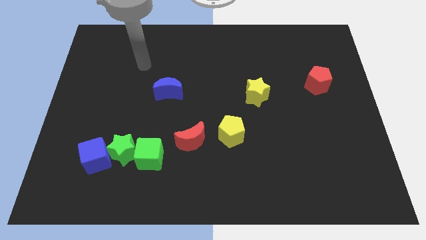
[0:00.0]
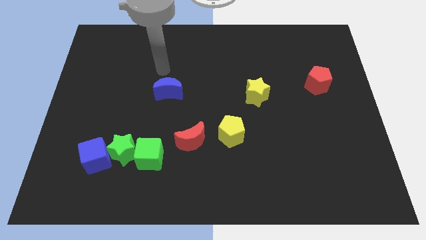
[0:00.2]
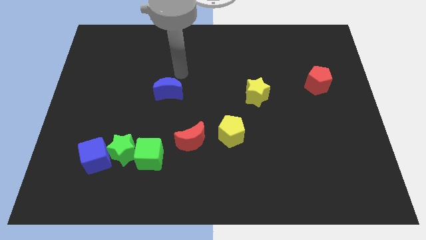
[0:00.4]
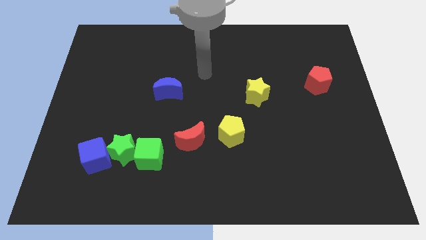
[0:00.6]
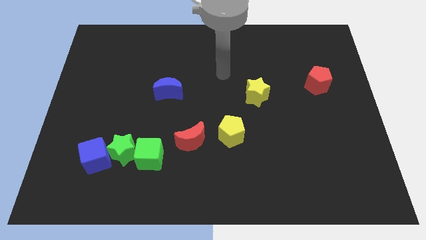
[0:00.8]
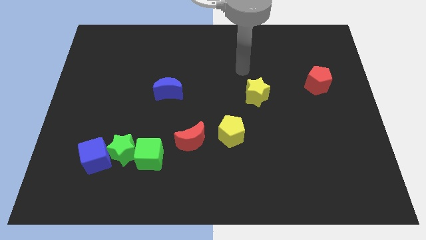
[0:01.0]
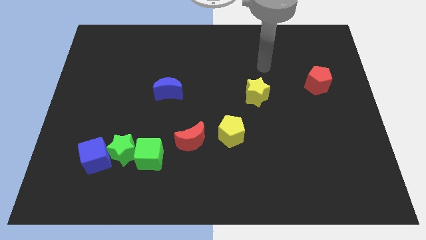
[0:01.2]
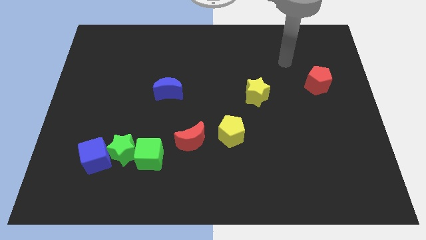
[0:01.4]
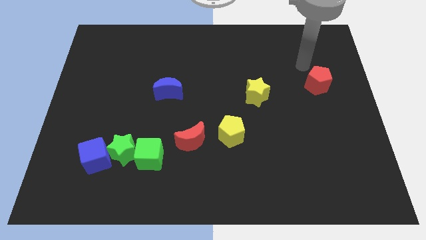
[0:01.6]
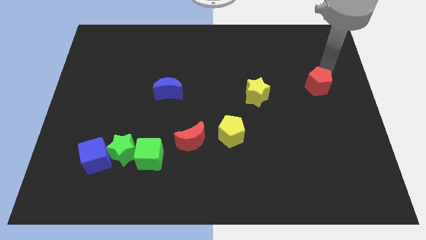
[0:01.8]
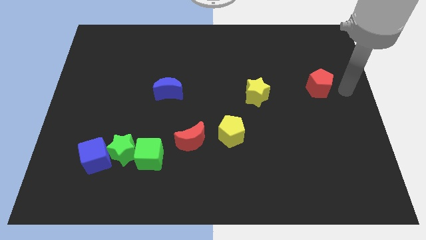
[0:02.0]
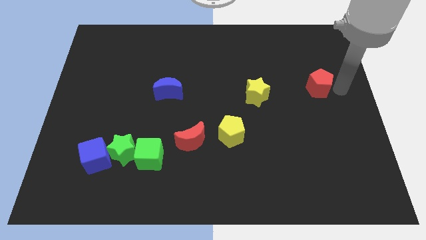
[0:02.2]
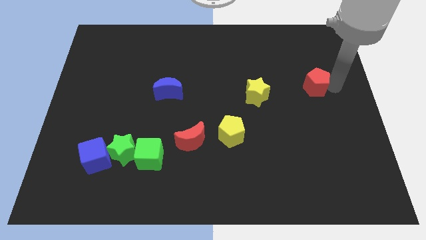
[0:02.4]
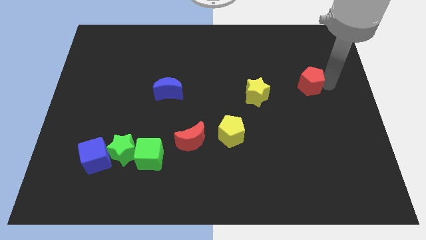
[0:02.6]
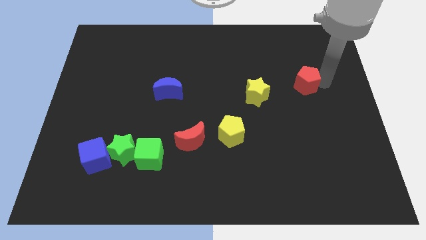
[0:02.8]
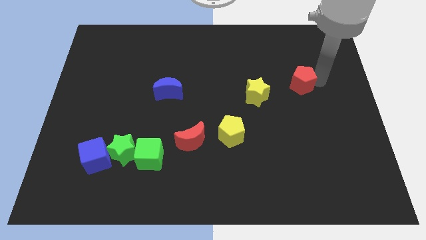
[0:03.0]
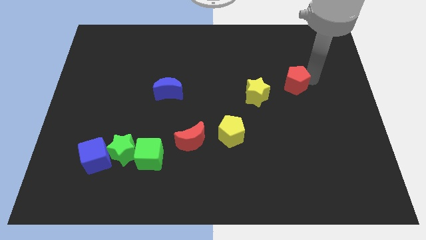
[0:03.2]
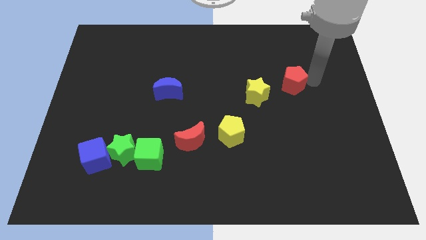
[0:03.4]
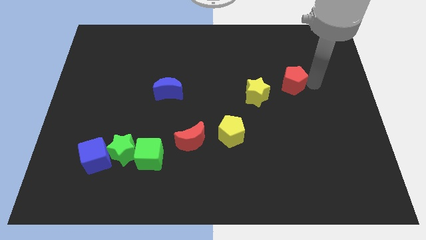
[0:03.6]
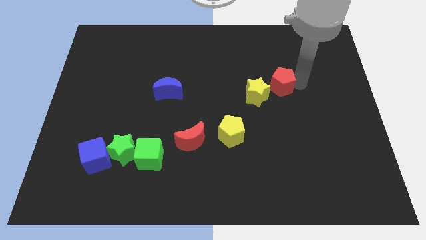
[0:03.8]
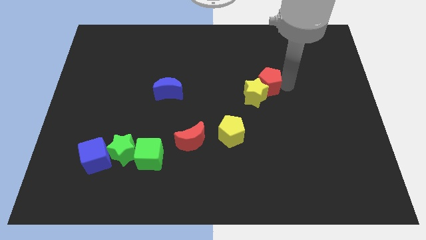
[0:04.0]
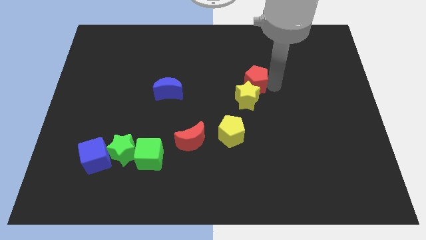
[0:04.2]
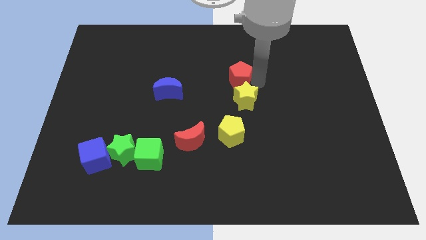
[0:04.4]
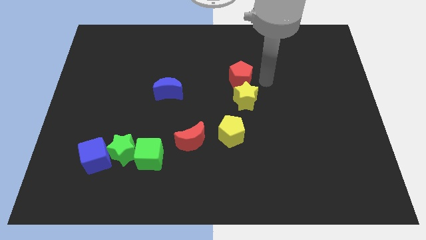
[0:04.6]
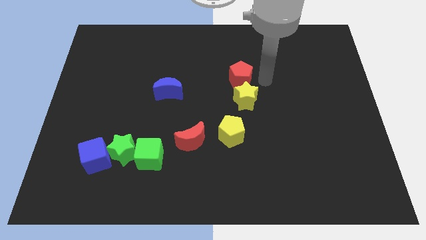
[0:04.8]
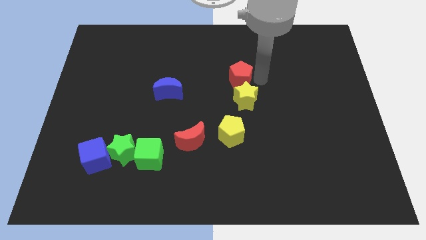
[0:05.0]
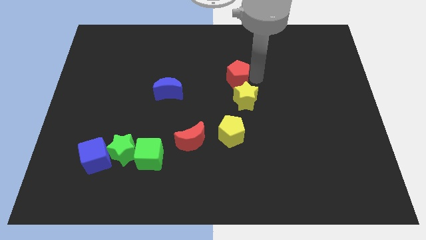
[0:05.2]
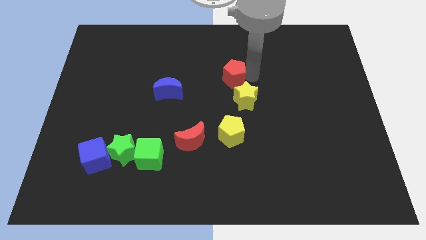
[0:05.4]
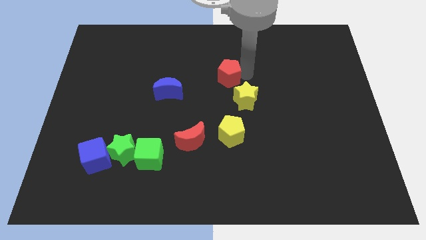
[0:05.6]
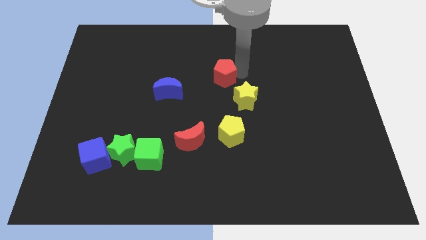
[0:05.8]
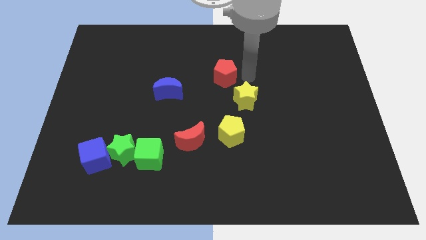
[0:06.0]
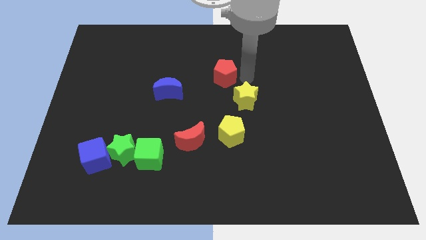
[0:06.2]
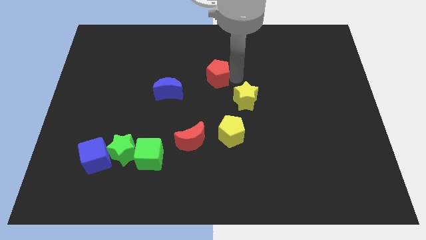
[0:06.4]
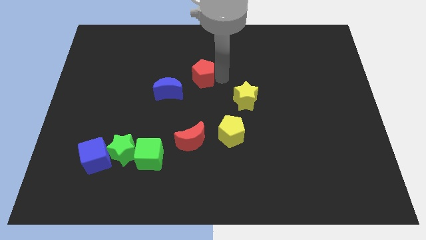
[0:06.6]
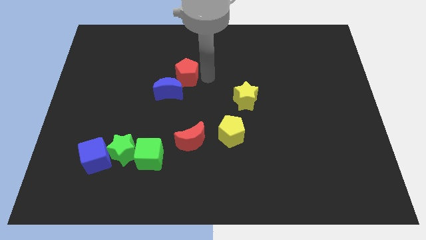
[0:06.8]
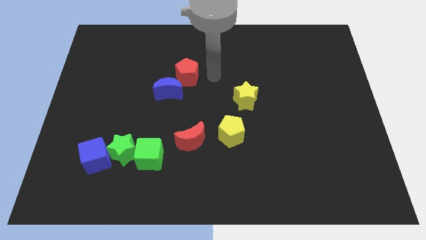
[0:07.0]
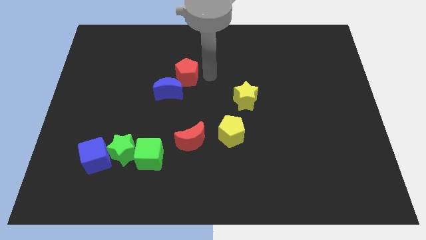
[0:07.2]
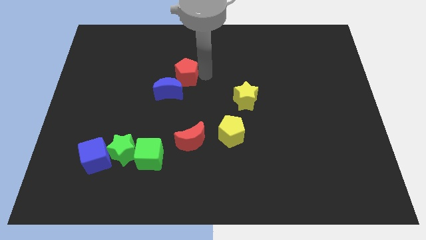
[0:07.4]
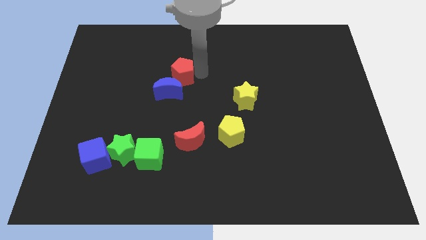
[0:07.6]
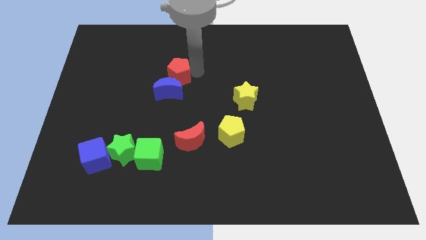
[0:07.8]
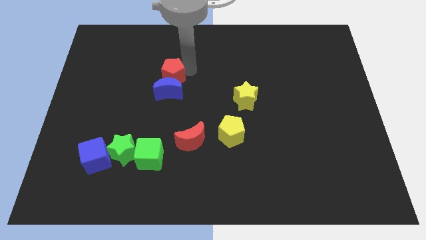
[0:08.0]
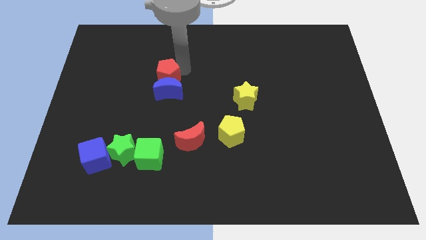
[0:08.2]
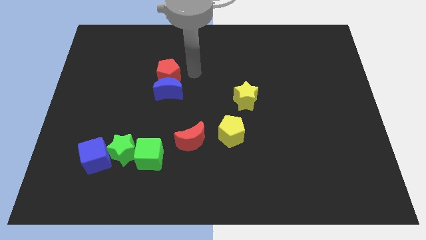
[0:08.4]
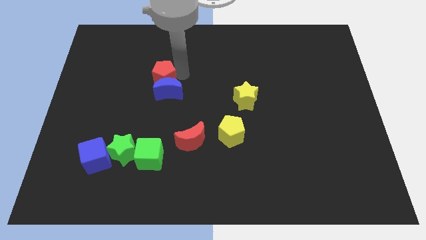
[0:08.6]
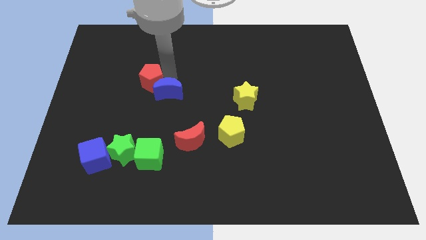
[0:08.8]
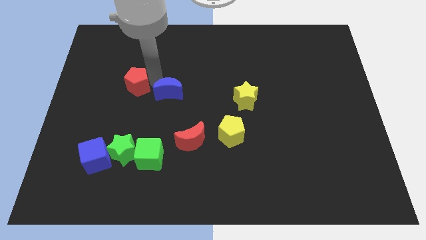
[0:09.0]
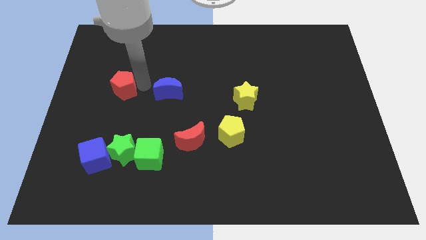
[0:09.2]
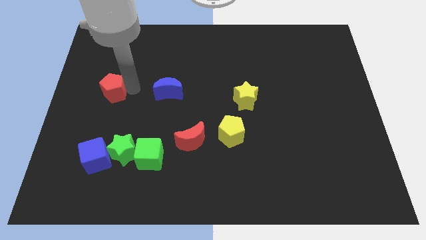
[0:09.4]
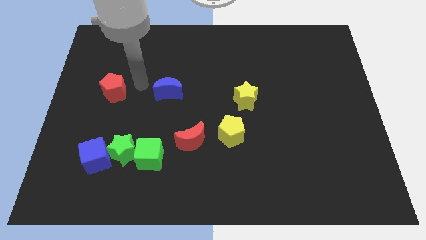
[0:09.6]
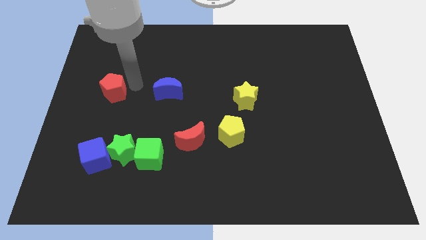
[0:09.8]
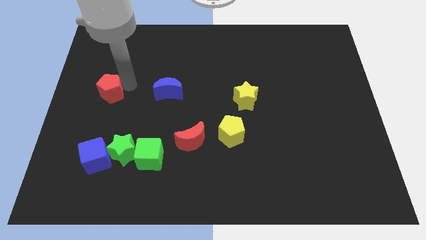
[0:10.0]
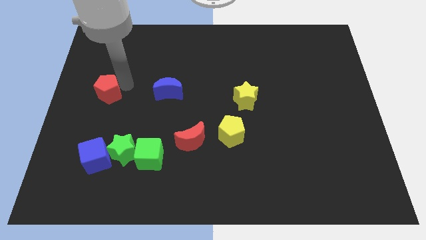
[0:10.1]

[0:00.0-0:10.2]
slide the red pentagon to the center left

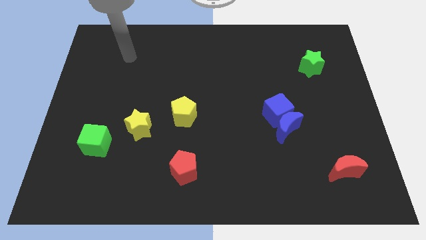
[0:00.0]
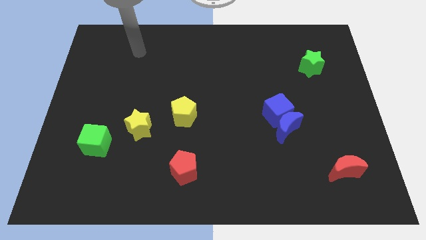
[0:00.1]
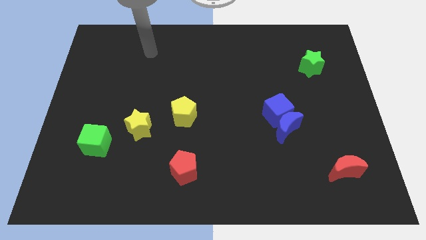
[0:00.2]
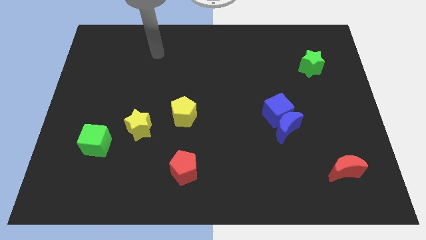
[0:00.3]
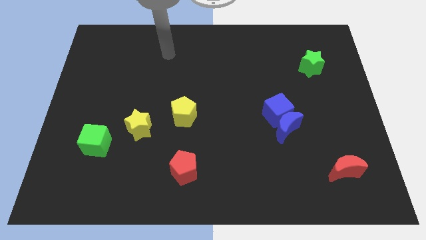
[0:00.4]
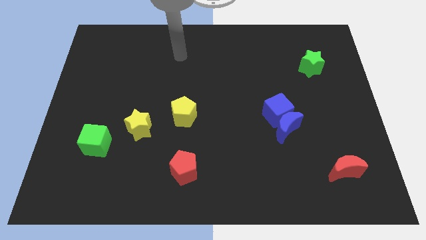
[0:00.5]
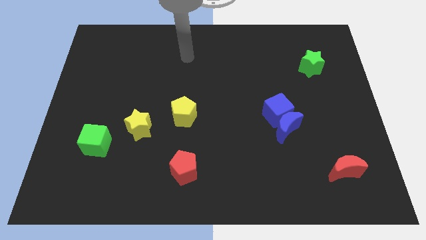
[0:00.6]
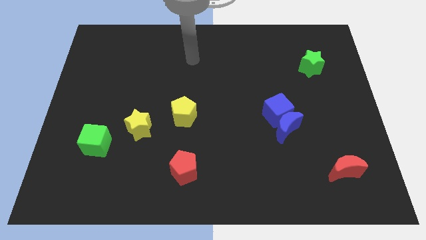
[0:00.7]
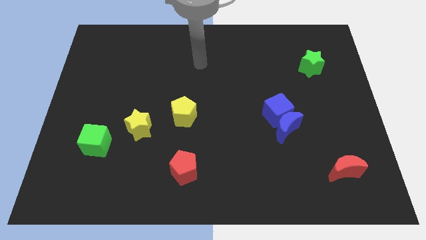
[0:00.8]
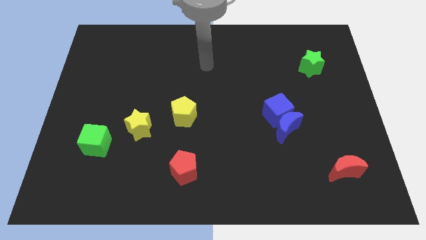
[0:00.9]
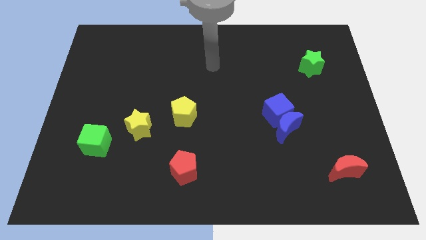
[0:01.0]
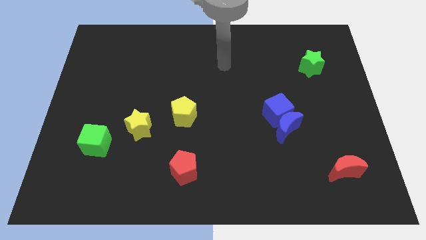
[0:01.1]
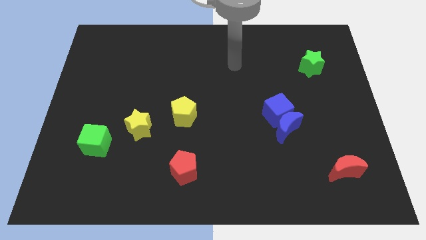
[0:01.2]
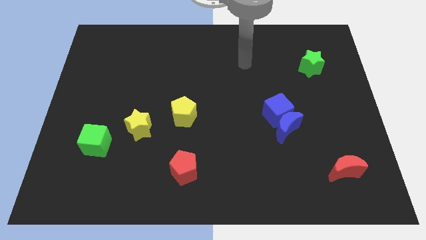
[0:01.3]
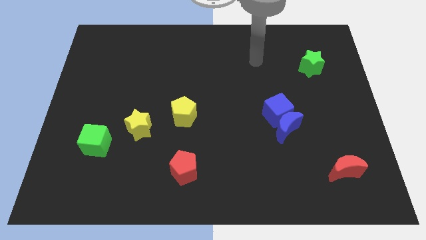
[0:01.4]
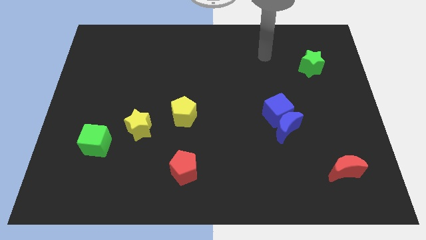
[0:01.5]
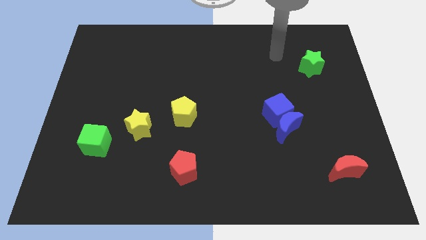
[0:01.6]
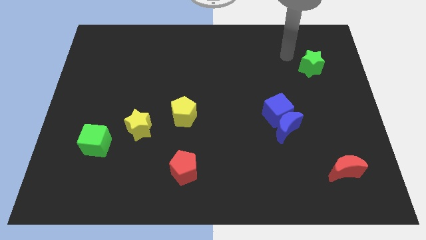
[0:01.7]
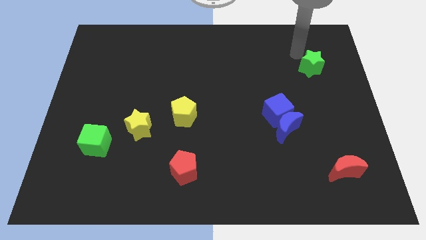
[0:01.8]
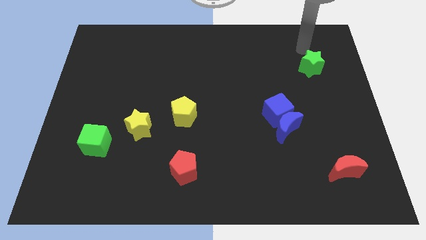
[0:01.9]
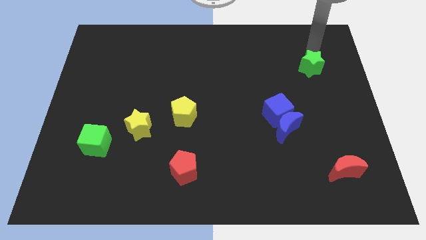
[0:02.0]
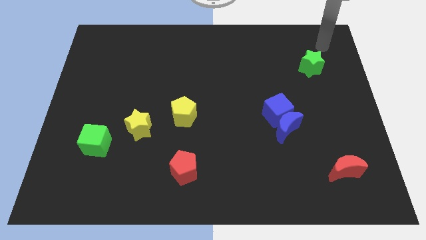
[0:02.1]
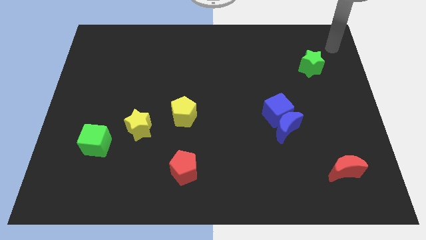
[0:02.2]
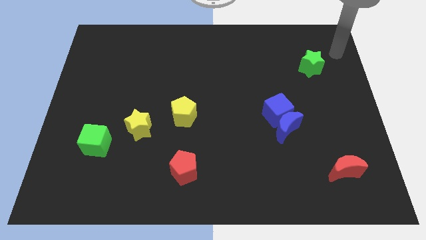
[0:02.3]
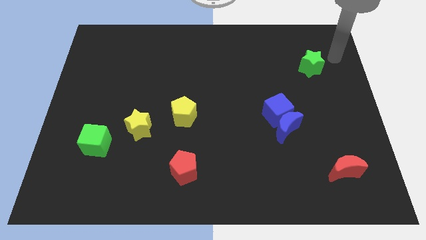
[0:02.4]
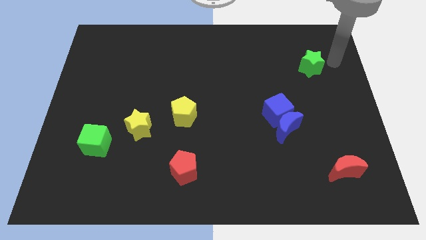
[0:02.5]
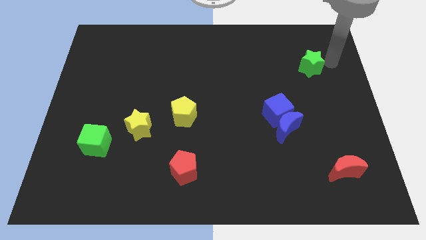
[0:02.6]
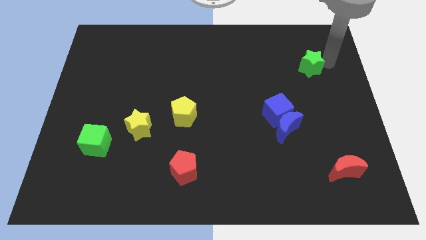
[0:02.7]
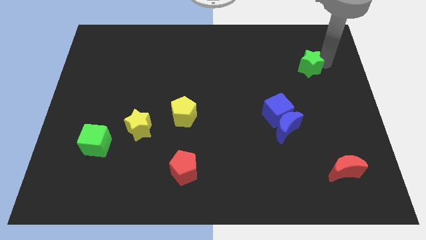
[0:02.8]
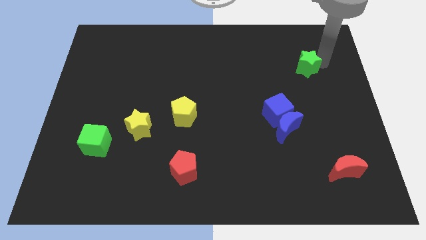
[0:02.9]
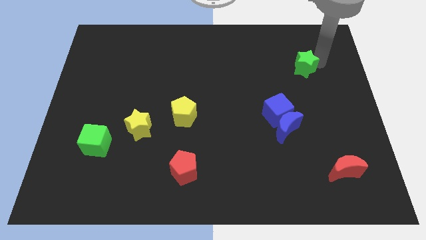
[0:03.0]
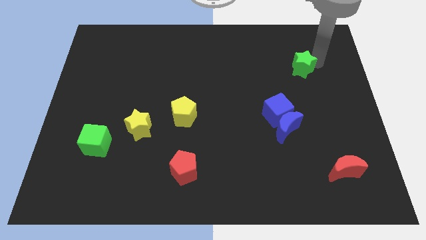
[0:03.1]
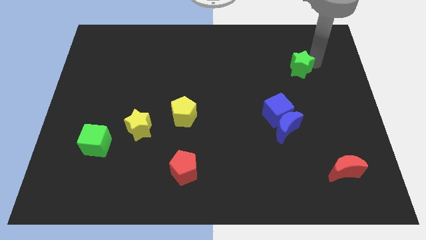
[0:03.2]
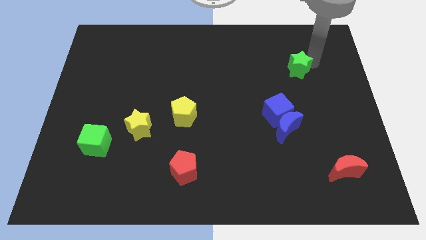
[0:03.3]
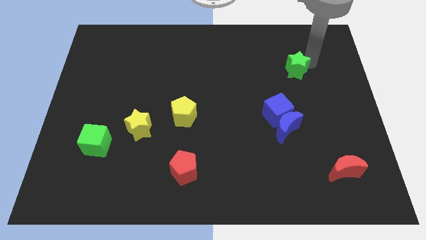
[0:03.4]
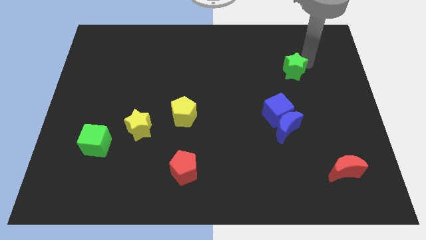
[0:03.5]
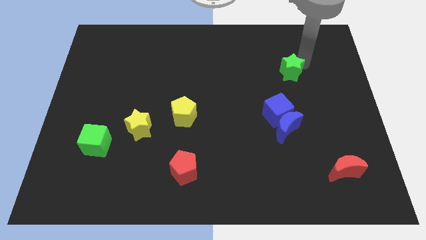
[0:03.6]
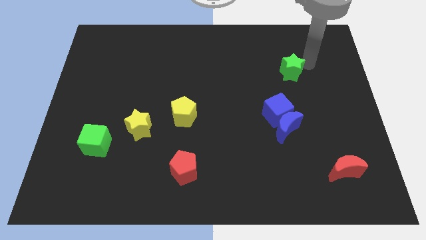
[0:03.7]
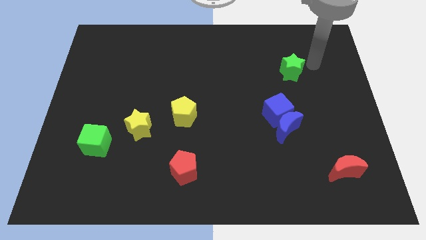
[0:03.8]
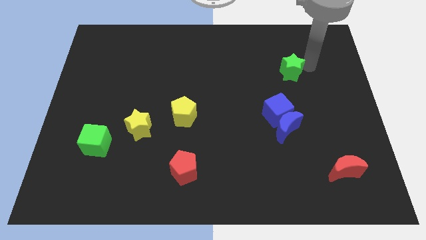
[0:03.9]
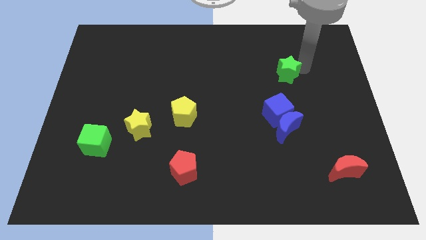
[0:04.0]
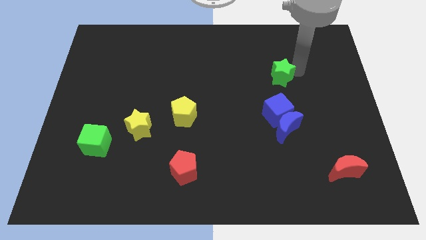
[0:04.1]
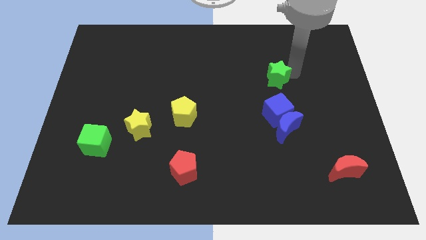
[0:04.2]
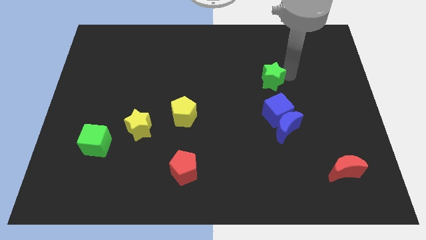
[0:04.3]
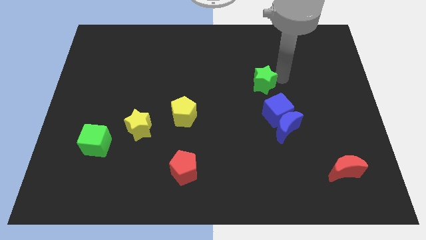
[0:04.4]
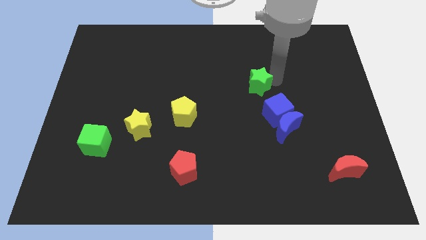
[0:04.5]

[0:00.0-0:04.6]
slide the green star to the middle of the board
